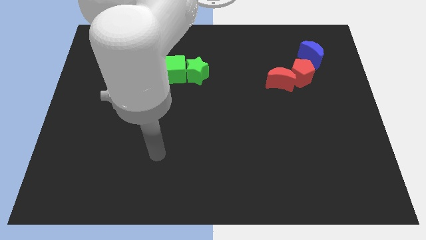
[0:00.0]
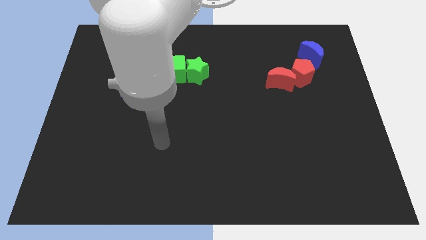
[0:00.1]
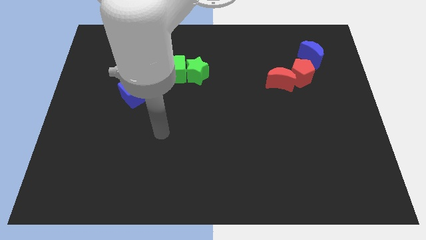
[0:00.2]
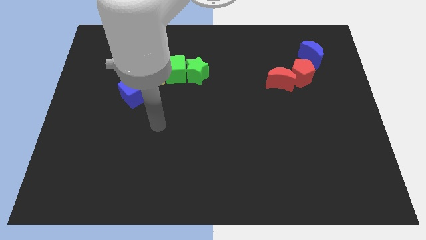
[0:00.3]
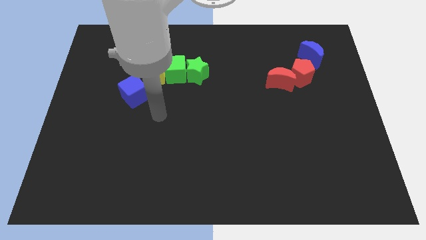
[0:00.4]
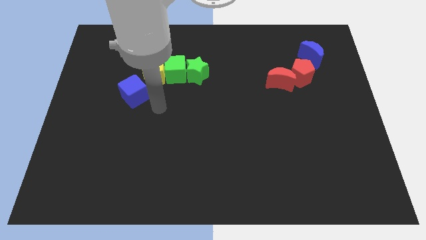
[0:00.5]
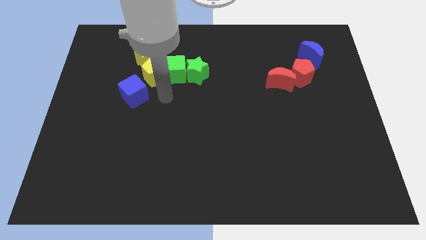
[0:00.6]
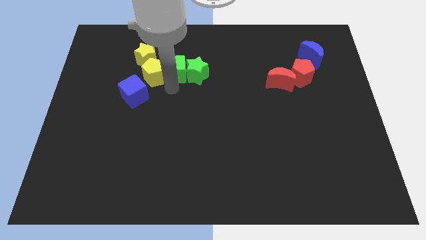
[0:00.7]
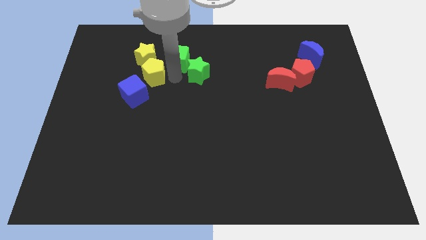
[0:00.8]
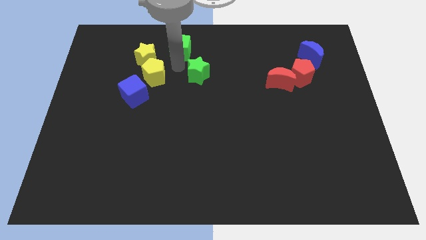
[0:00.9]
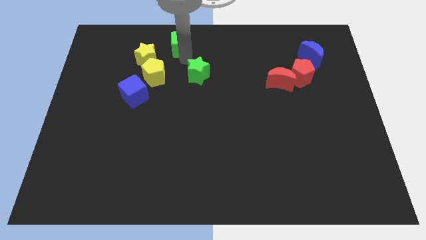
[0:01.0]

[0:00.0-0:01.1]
separate the green star from the green cube

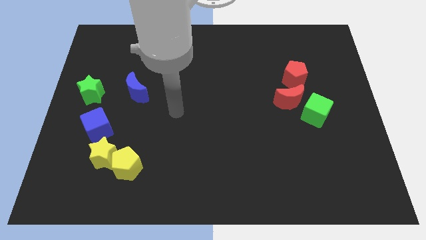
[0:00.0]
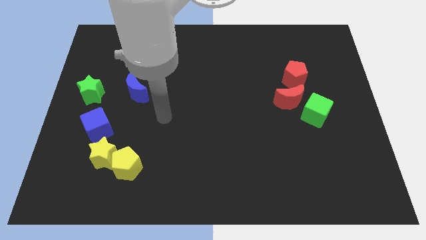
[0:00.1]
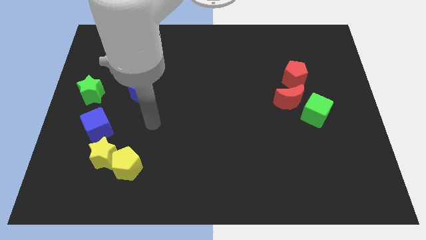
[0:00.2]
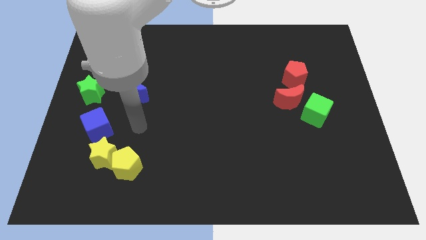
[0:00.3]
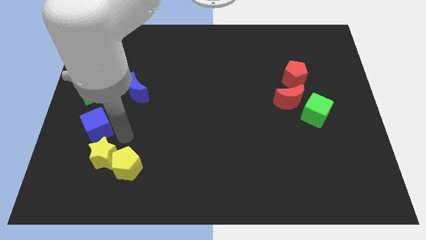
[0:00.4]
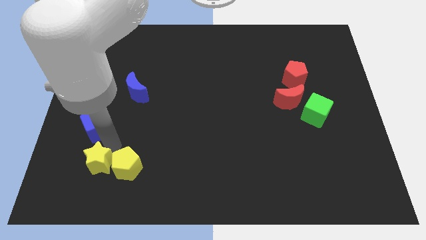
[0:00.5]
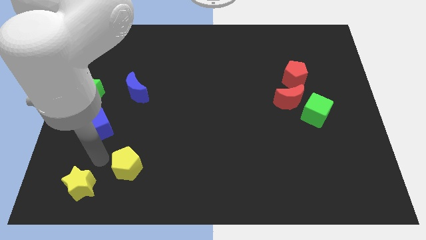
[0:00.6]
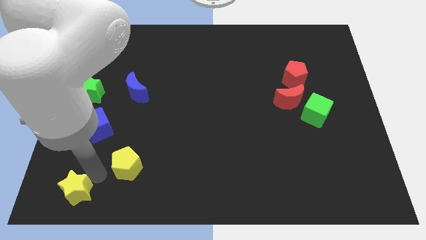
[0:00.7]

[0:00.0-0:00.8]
pull the yellow pentagon apart from the yellow star

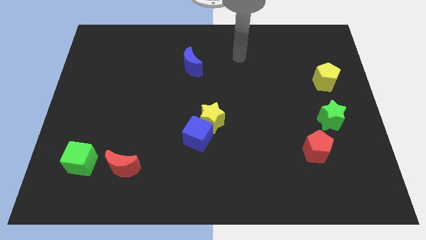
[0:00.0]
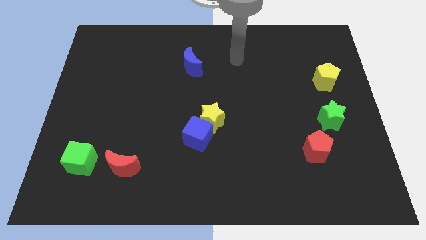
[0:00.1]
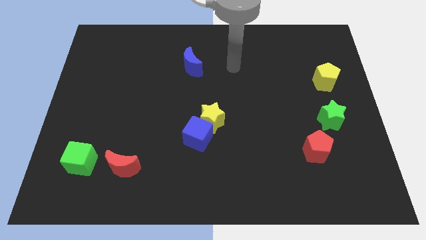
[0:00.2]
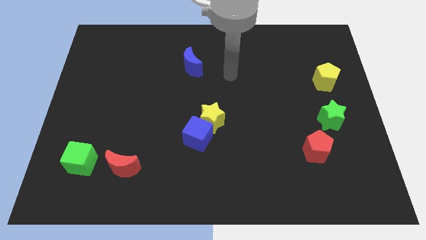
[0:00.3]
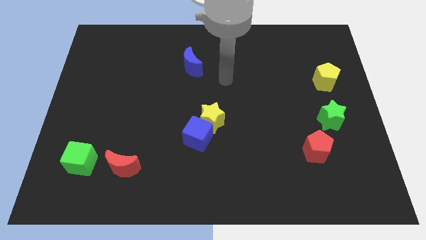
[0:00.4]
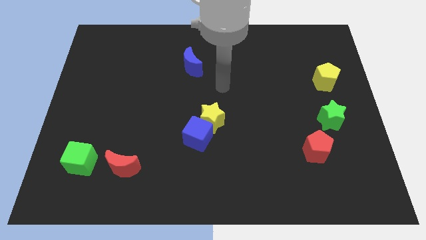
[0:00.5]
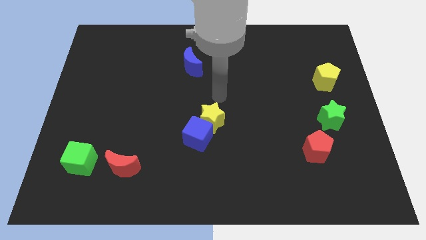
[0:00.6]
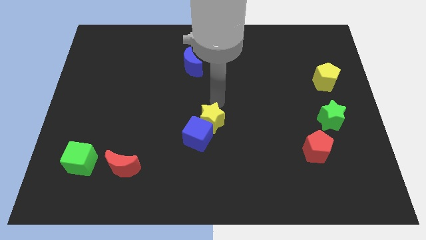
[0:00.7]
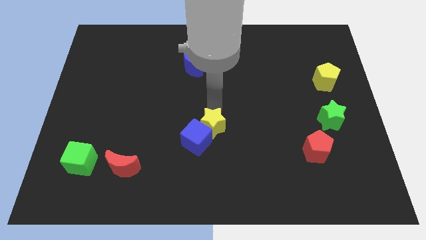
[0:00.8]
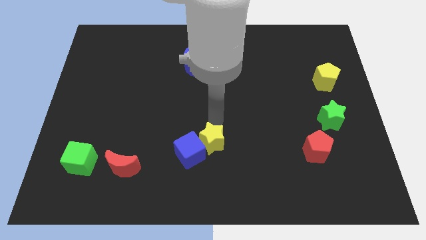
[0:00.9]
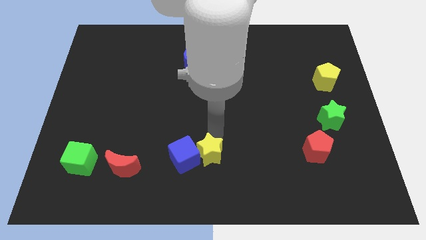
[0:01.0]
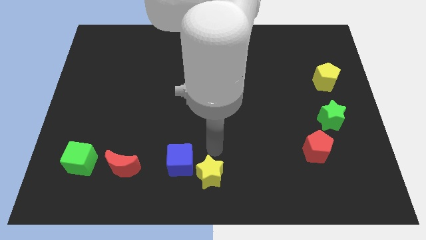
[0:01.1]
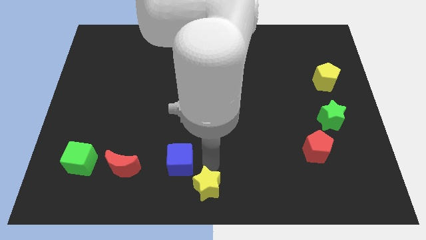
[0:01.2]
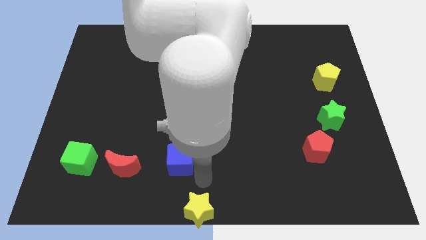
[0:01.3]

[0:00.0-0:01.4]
separate the blue cube from the yellow star

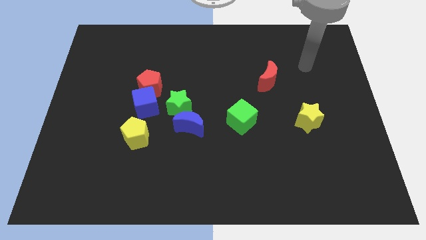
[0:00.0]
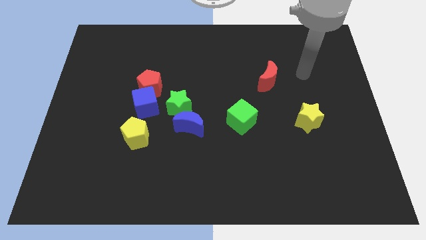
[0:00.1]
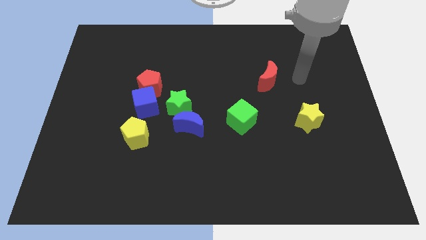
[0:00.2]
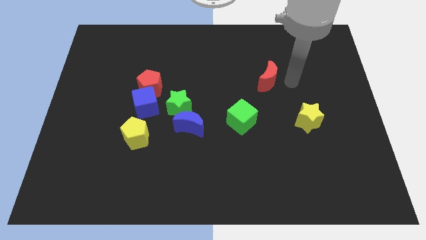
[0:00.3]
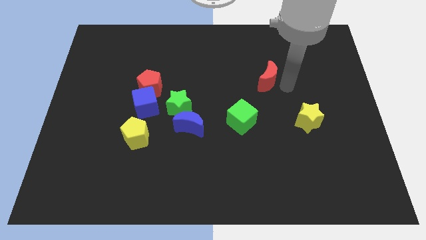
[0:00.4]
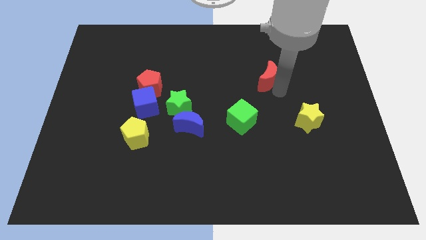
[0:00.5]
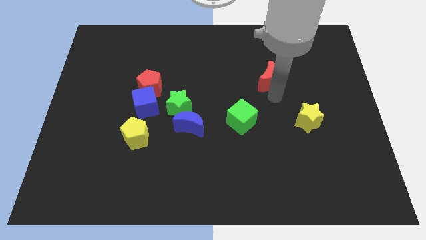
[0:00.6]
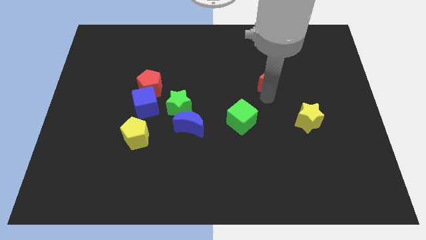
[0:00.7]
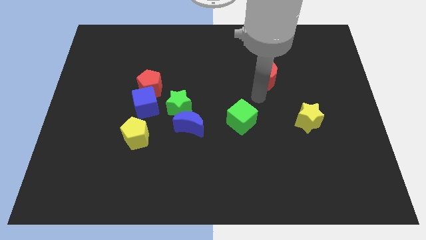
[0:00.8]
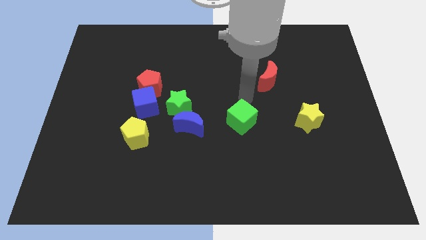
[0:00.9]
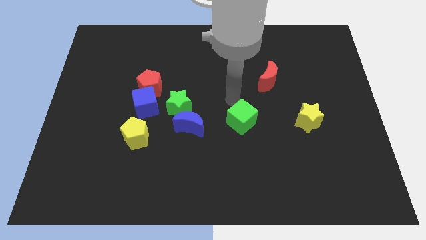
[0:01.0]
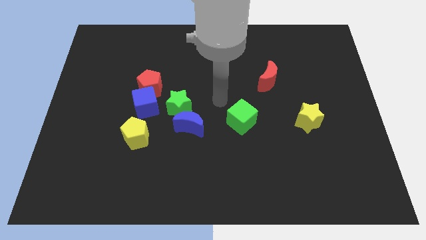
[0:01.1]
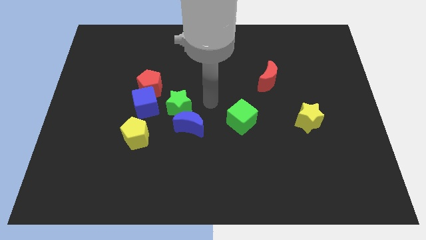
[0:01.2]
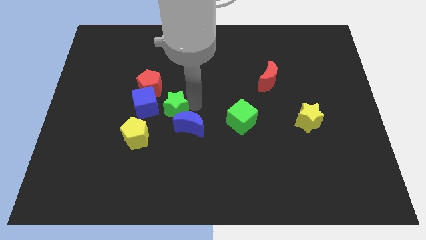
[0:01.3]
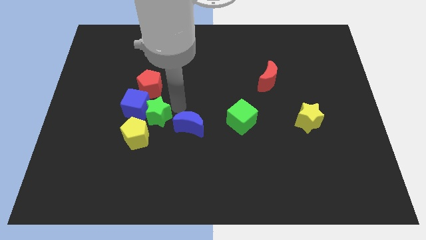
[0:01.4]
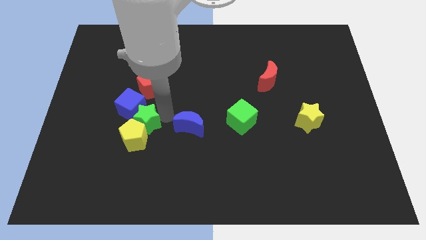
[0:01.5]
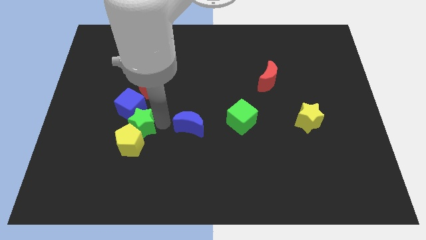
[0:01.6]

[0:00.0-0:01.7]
move the blue moon away from the green star

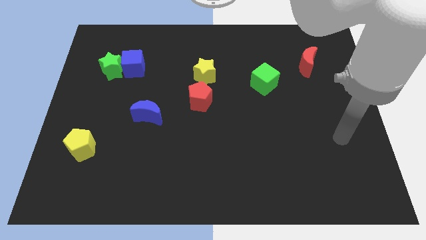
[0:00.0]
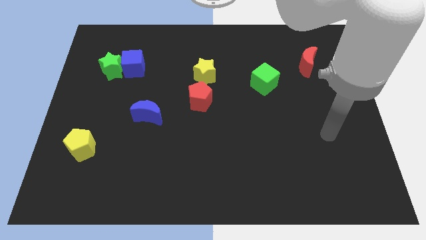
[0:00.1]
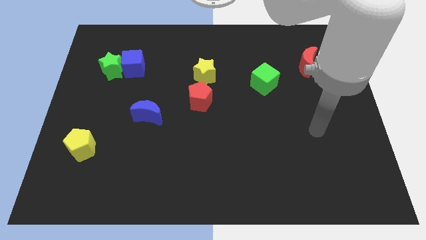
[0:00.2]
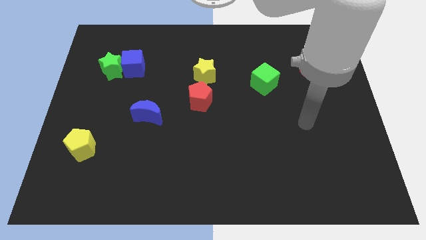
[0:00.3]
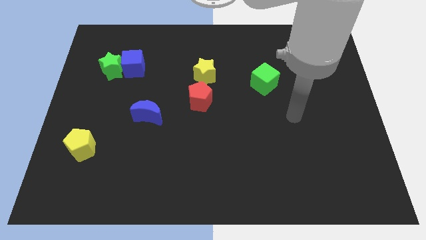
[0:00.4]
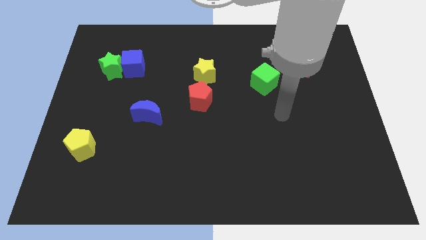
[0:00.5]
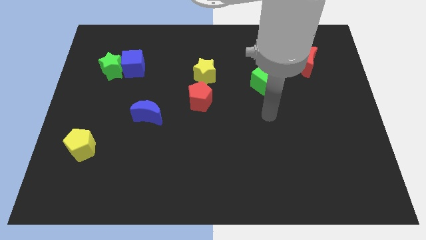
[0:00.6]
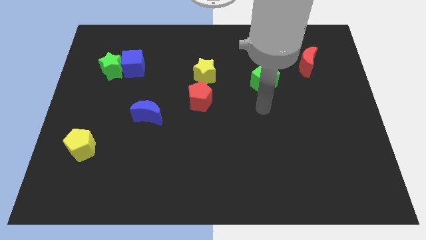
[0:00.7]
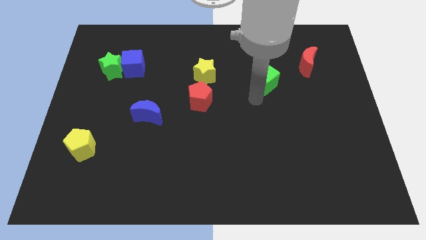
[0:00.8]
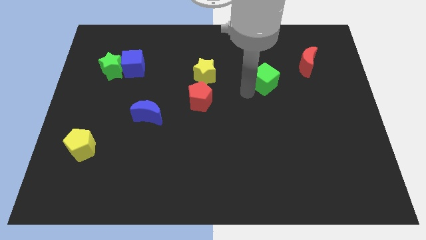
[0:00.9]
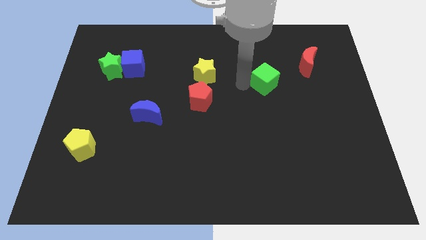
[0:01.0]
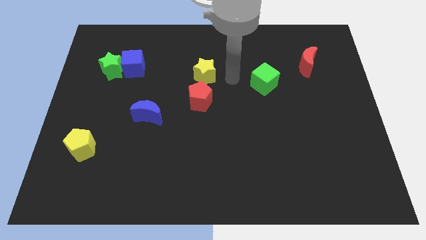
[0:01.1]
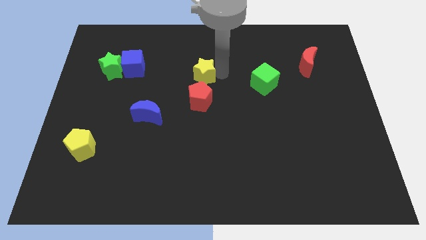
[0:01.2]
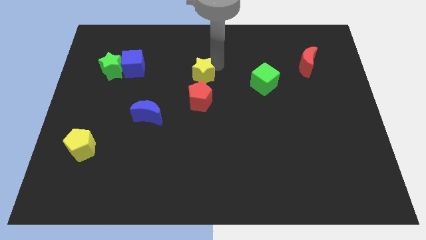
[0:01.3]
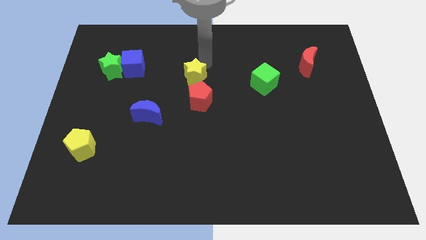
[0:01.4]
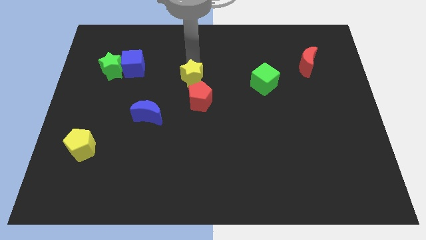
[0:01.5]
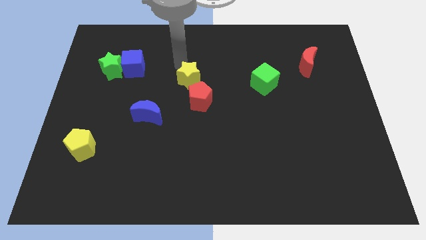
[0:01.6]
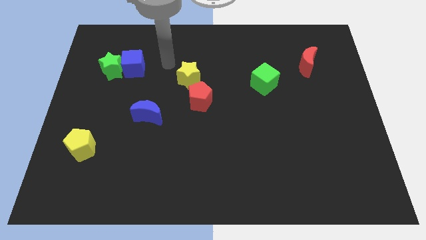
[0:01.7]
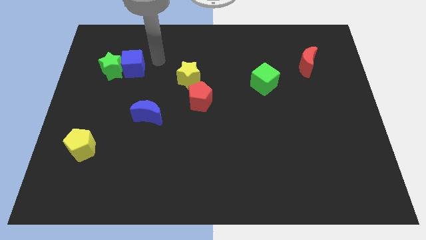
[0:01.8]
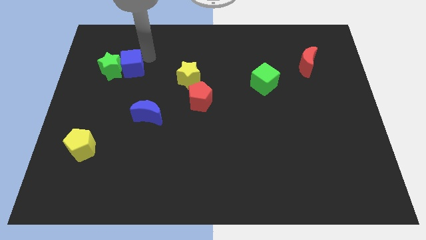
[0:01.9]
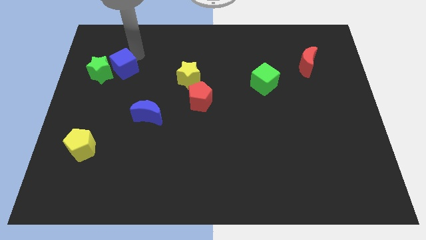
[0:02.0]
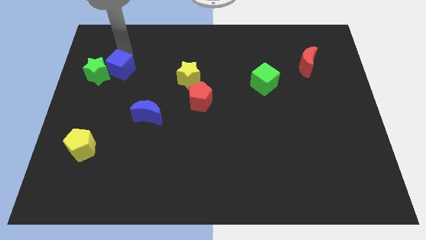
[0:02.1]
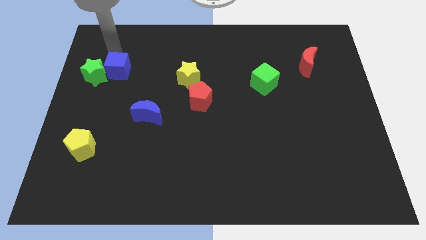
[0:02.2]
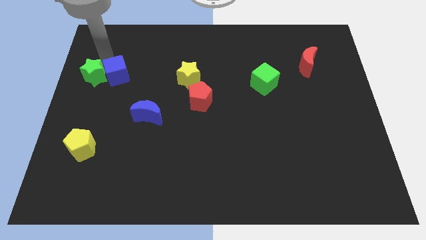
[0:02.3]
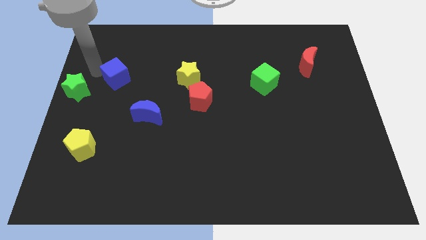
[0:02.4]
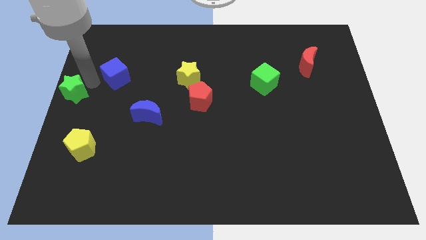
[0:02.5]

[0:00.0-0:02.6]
move the blue cube away from the green star

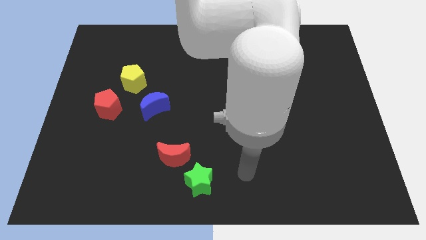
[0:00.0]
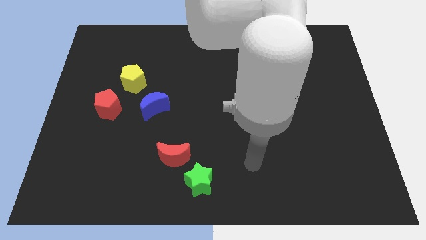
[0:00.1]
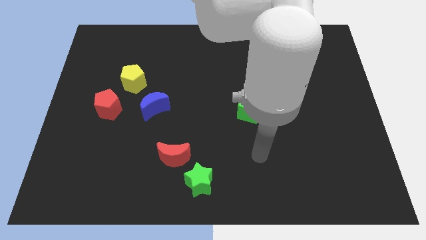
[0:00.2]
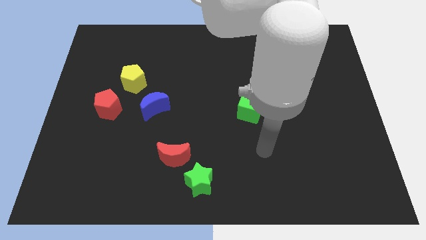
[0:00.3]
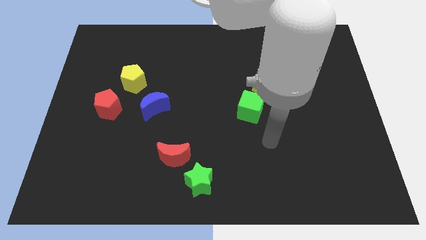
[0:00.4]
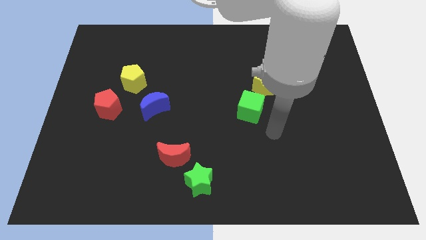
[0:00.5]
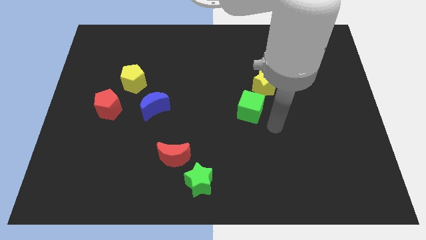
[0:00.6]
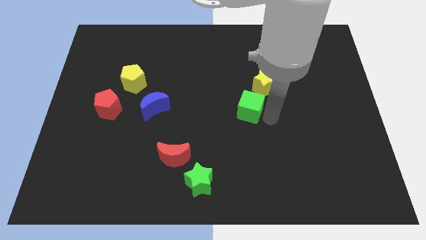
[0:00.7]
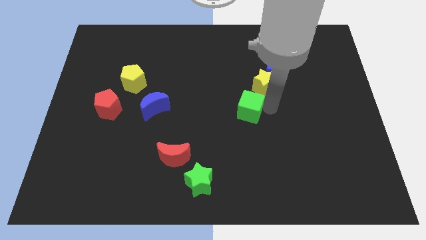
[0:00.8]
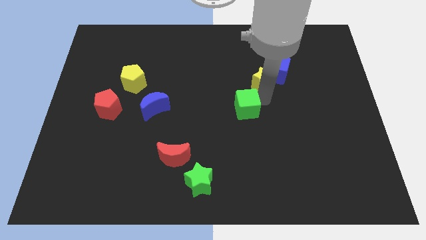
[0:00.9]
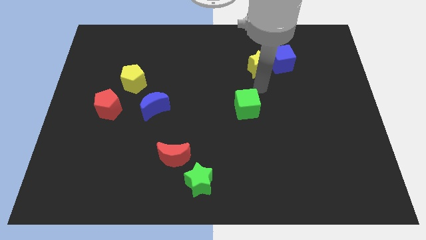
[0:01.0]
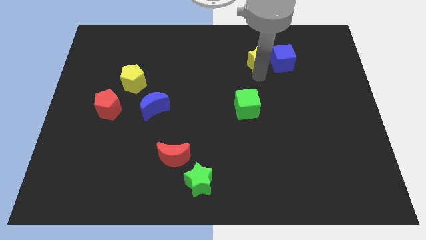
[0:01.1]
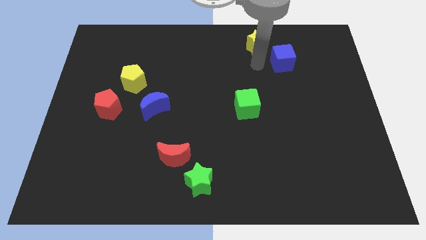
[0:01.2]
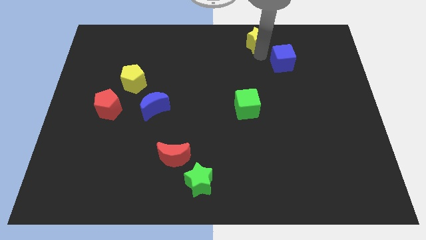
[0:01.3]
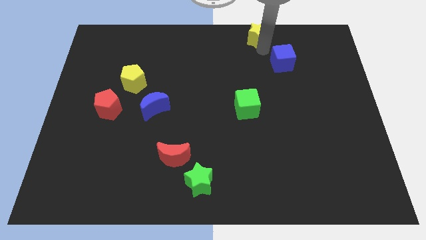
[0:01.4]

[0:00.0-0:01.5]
move the blue cube away from the yellow star
